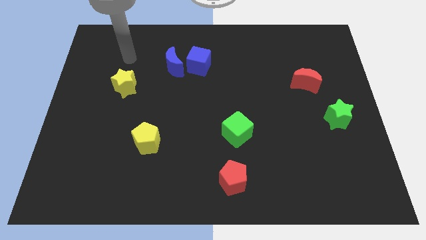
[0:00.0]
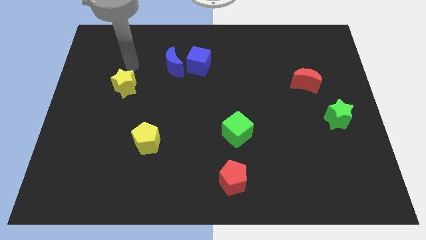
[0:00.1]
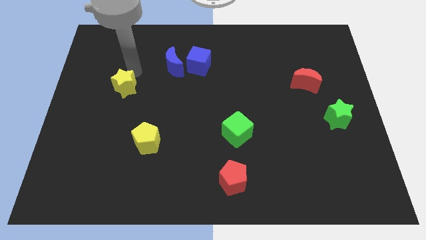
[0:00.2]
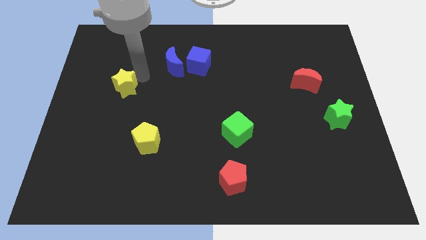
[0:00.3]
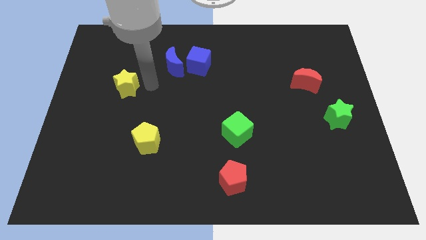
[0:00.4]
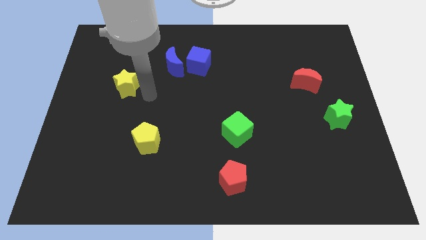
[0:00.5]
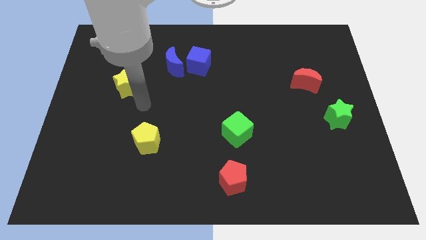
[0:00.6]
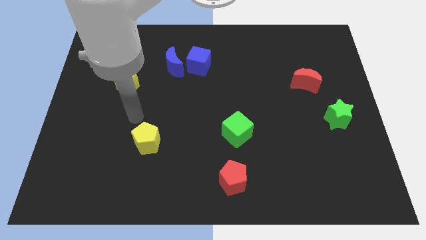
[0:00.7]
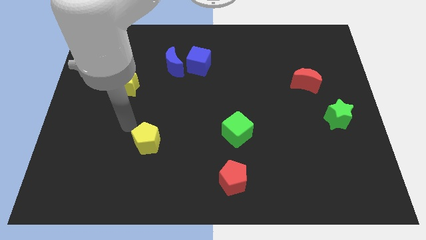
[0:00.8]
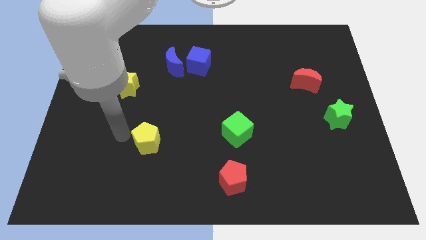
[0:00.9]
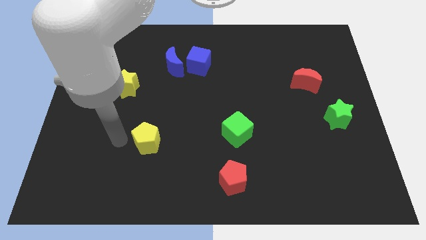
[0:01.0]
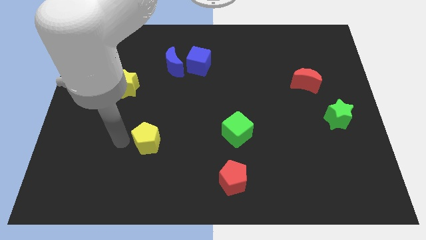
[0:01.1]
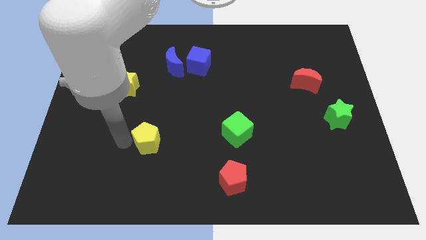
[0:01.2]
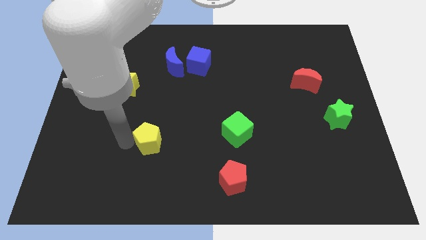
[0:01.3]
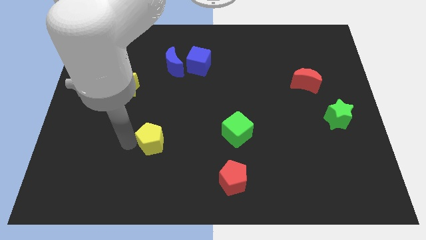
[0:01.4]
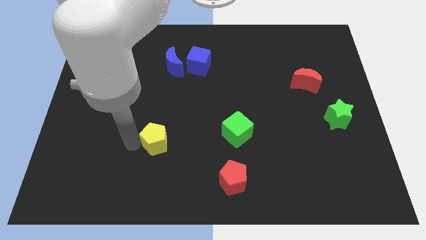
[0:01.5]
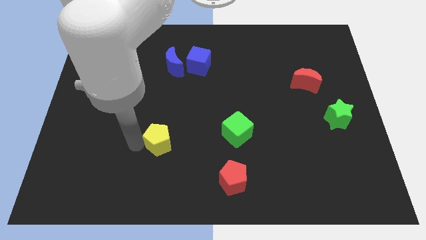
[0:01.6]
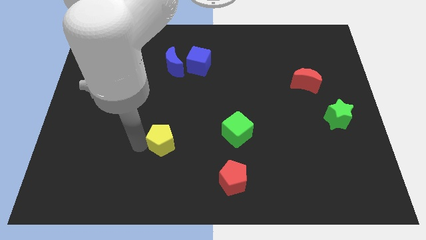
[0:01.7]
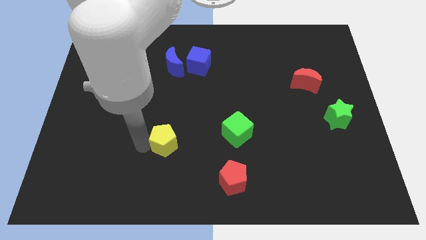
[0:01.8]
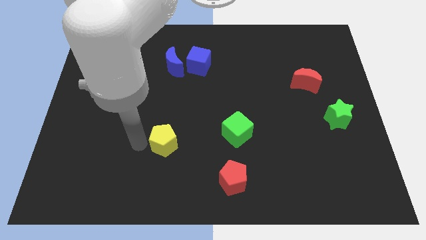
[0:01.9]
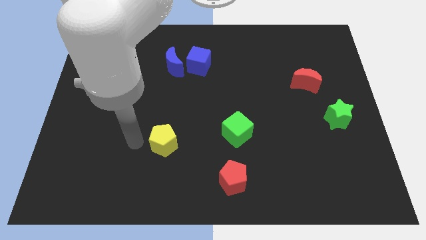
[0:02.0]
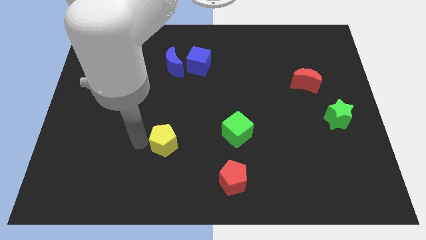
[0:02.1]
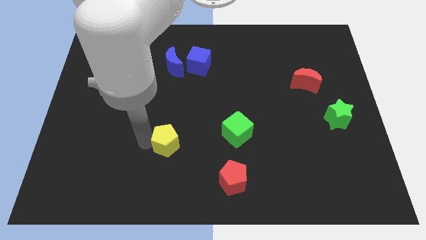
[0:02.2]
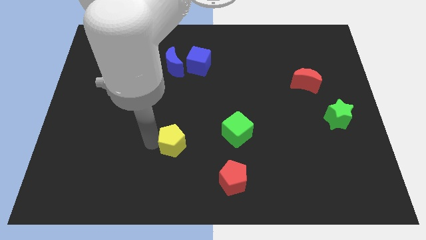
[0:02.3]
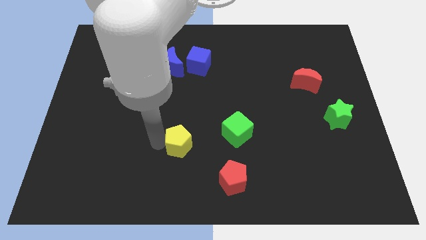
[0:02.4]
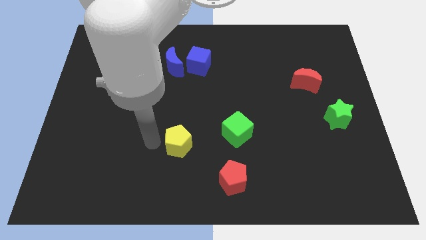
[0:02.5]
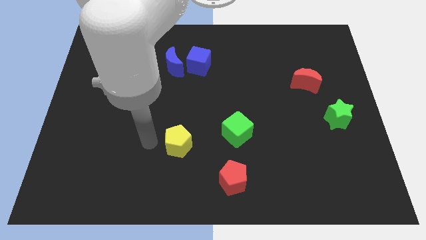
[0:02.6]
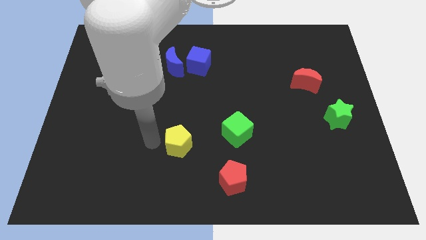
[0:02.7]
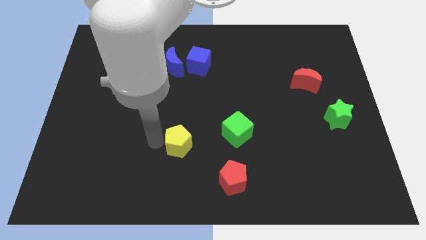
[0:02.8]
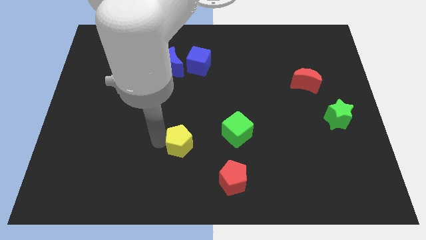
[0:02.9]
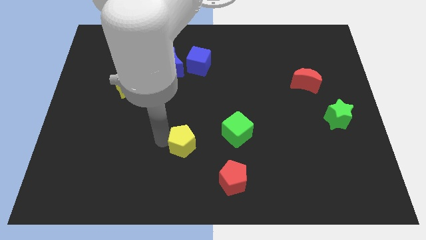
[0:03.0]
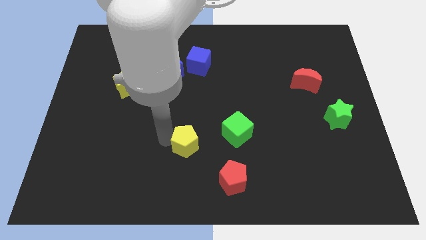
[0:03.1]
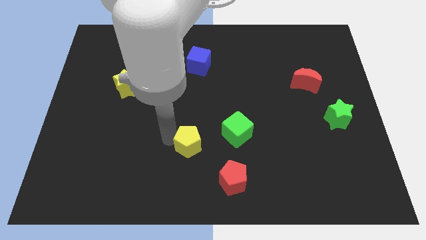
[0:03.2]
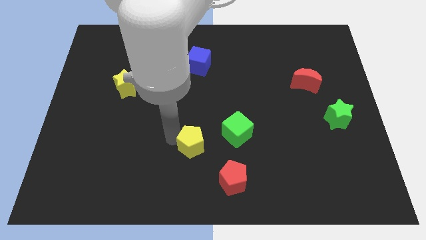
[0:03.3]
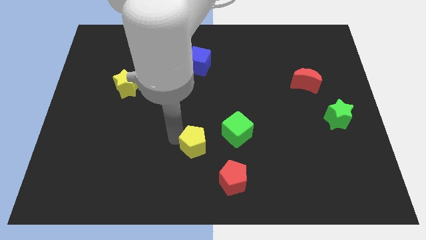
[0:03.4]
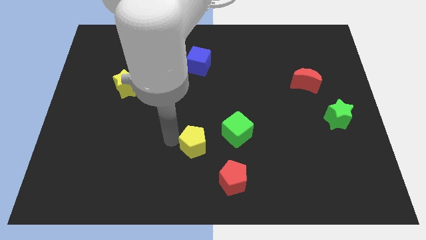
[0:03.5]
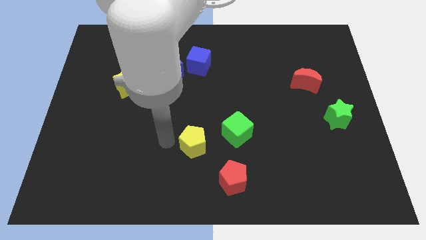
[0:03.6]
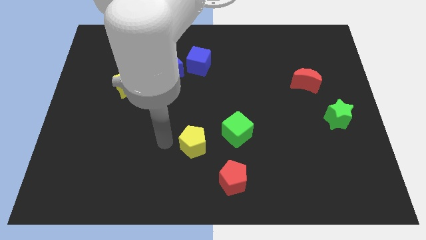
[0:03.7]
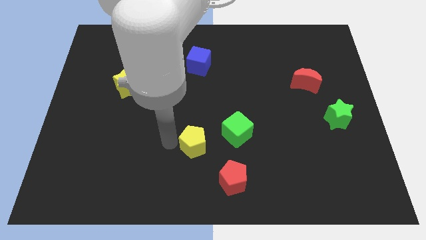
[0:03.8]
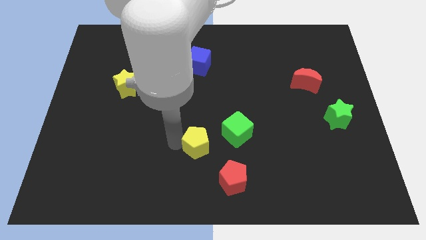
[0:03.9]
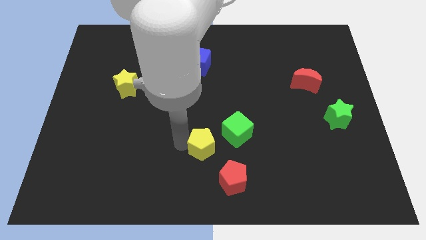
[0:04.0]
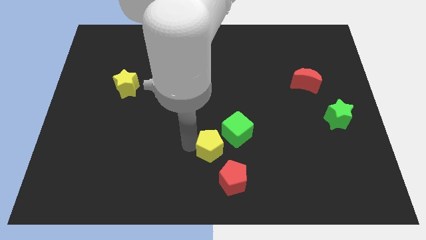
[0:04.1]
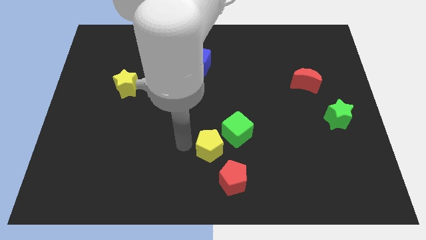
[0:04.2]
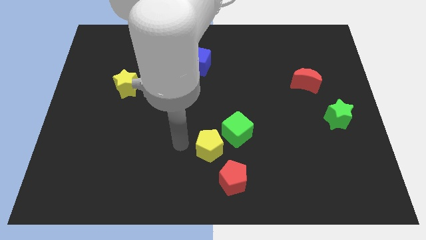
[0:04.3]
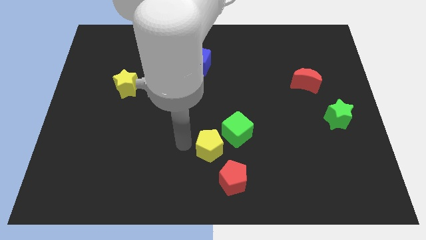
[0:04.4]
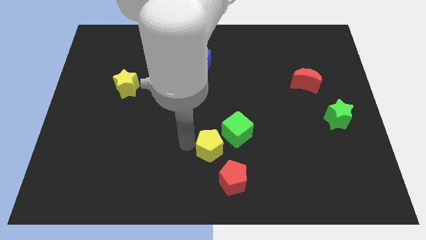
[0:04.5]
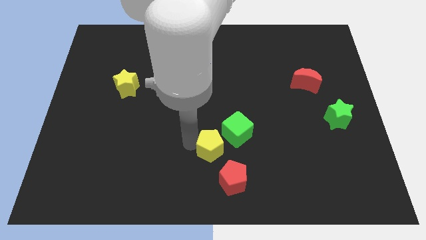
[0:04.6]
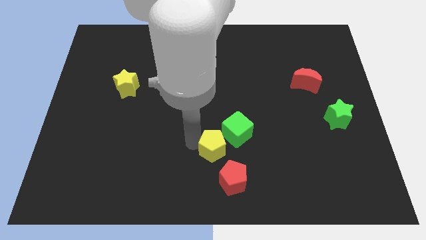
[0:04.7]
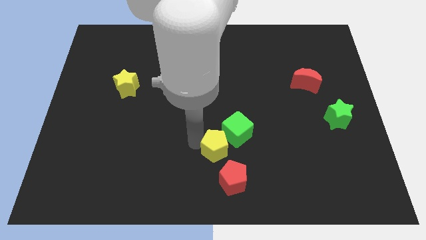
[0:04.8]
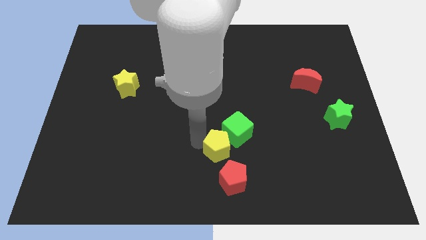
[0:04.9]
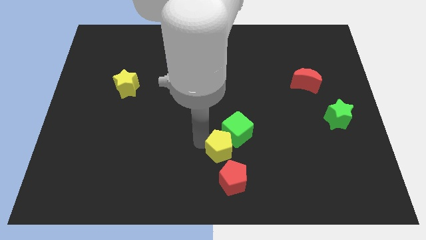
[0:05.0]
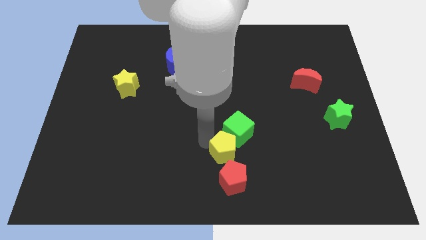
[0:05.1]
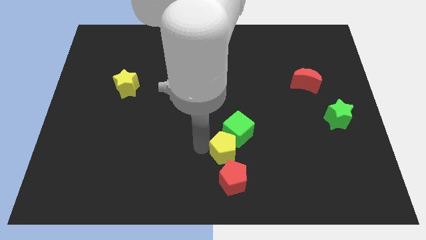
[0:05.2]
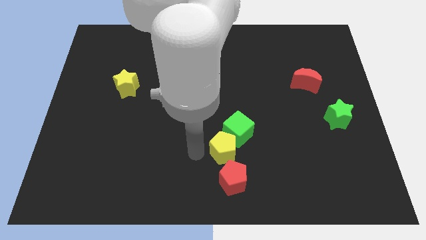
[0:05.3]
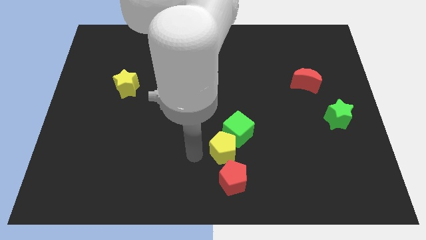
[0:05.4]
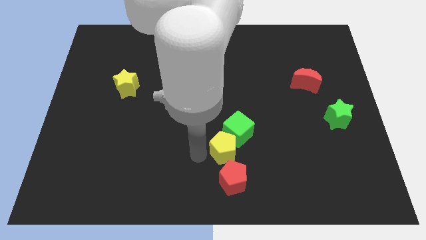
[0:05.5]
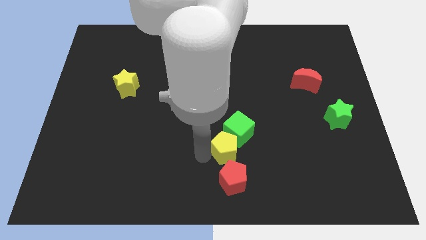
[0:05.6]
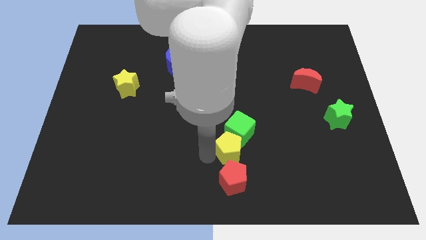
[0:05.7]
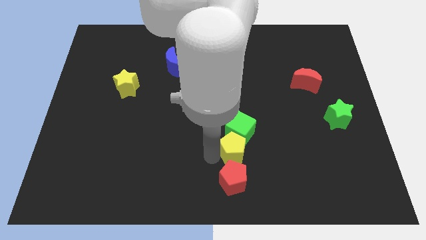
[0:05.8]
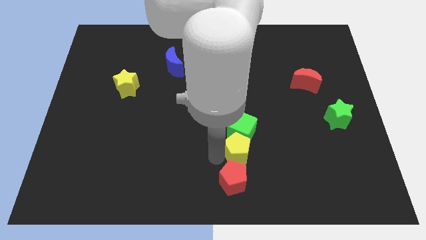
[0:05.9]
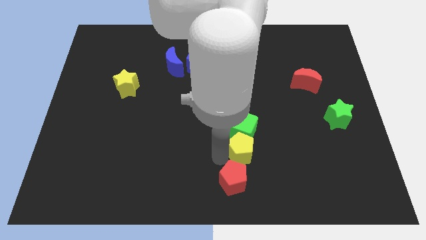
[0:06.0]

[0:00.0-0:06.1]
move the yellow pentagon to the right

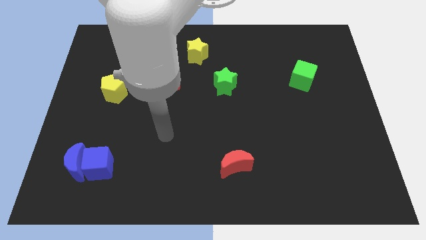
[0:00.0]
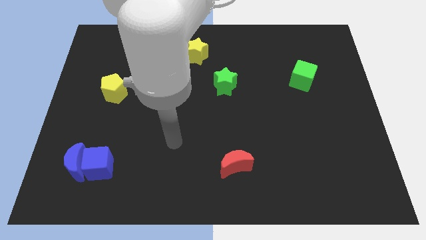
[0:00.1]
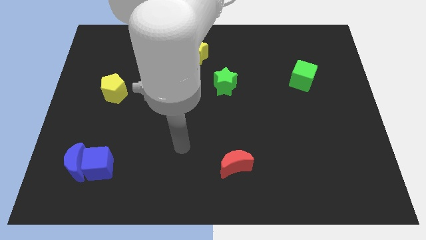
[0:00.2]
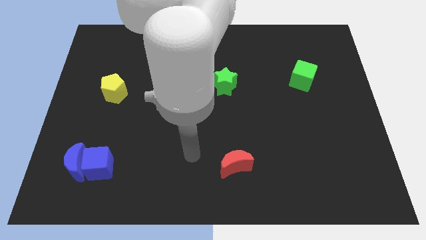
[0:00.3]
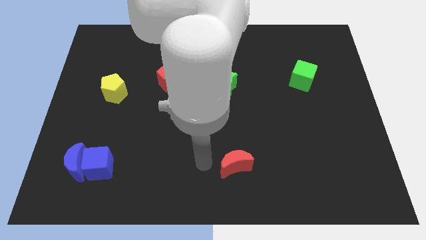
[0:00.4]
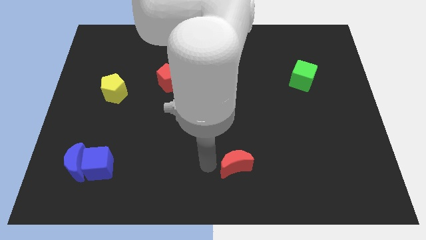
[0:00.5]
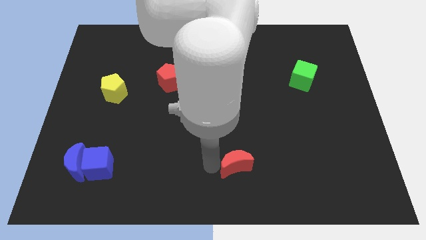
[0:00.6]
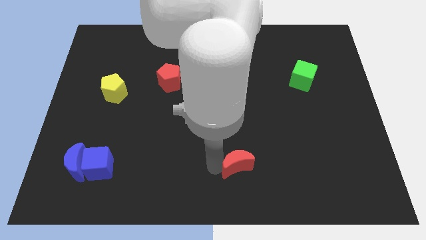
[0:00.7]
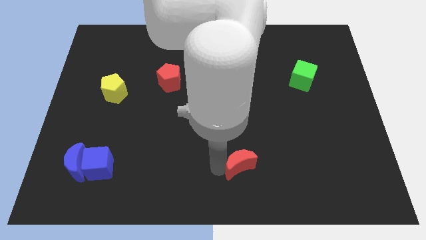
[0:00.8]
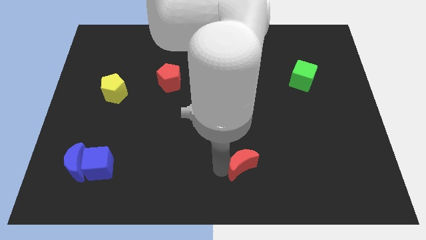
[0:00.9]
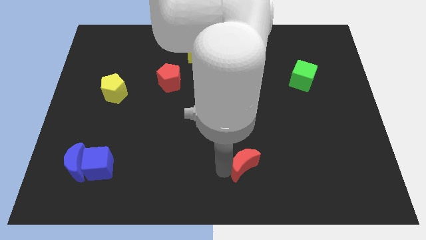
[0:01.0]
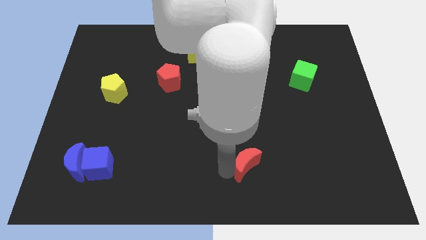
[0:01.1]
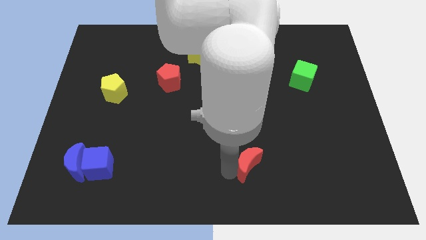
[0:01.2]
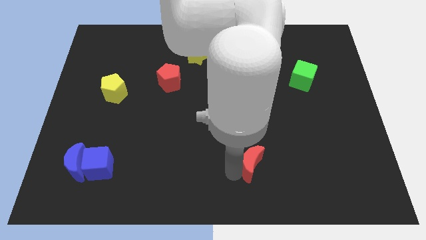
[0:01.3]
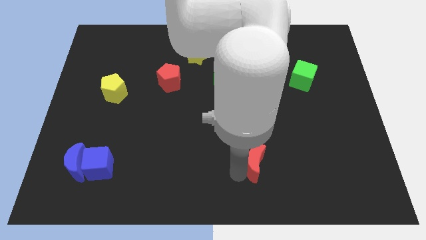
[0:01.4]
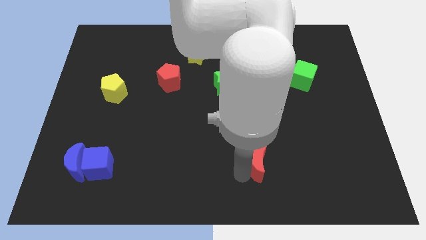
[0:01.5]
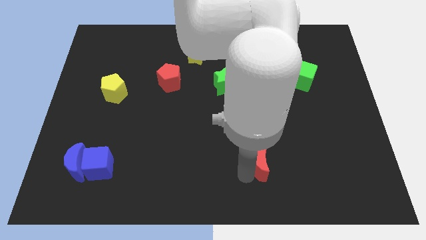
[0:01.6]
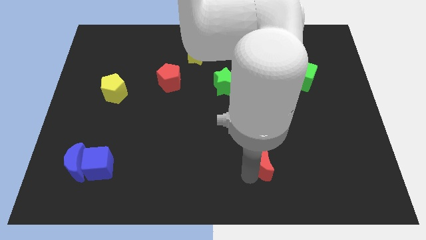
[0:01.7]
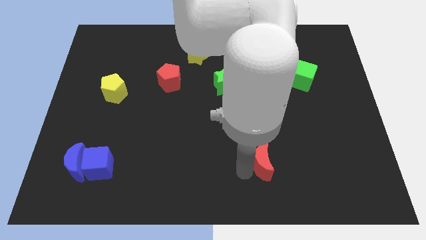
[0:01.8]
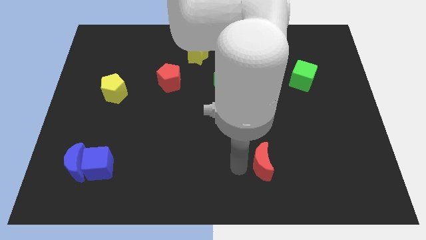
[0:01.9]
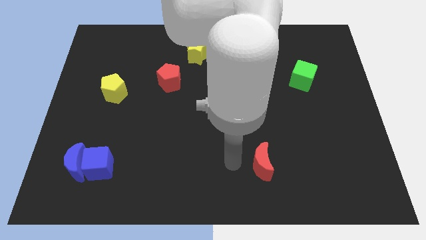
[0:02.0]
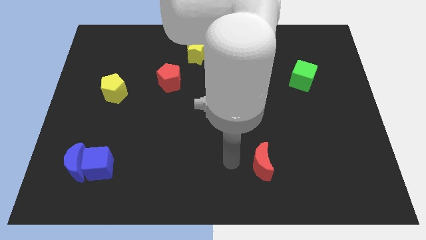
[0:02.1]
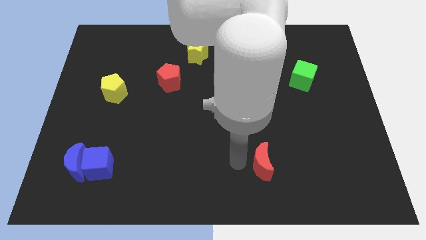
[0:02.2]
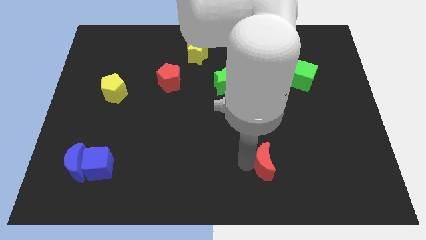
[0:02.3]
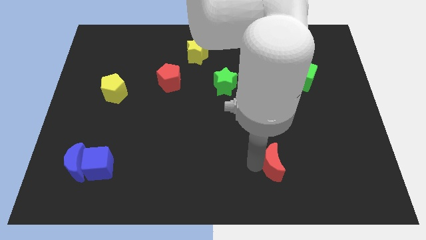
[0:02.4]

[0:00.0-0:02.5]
slide the red moon right a little
